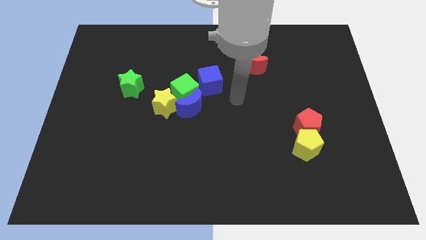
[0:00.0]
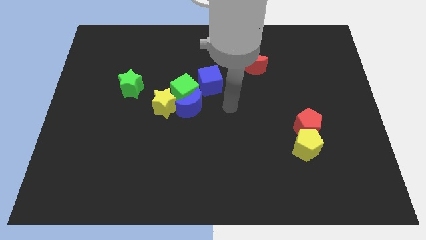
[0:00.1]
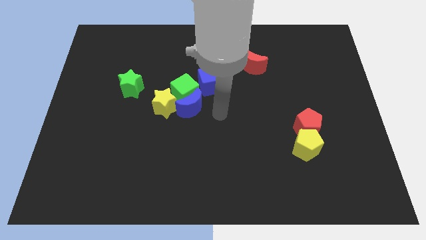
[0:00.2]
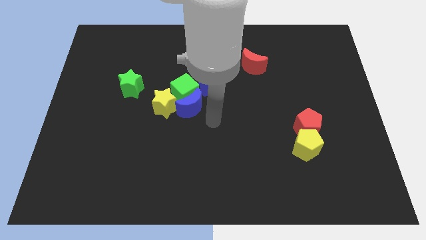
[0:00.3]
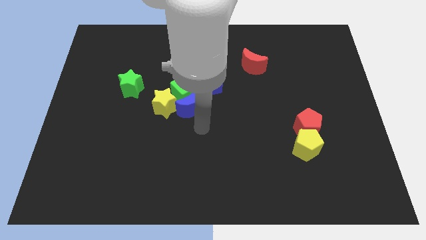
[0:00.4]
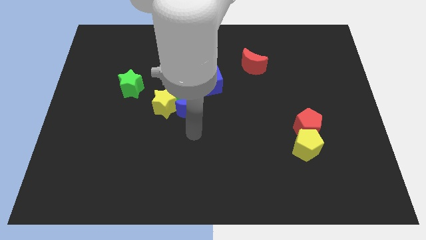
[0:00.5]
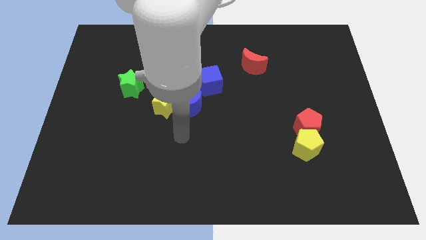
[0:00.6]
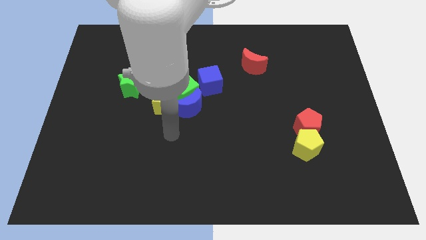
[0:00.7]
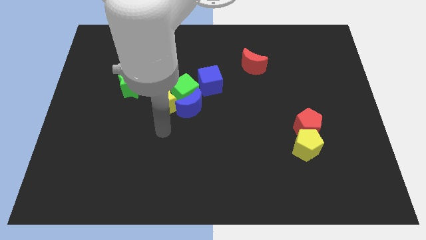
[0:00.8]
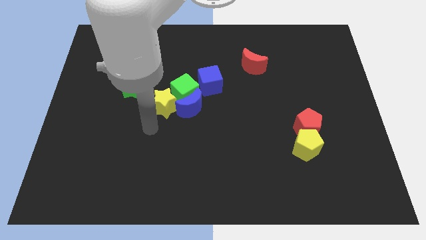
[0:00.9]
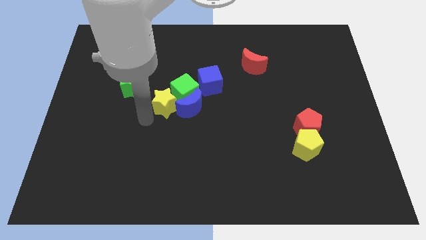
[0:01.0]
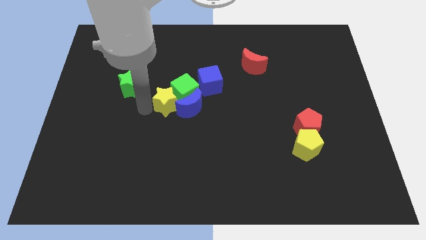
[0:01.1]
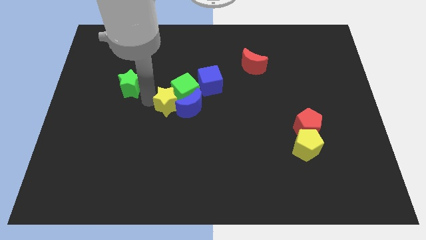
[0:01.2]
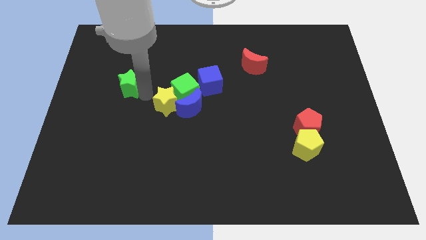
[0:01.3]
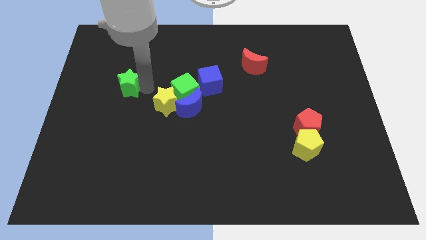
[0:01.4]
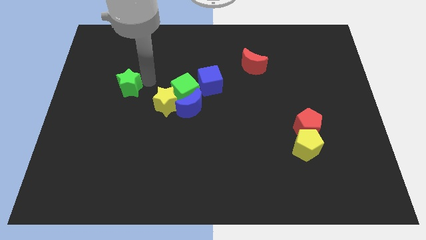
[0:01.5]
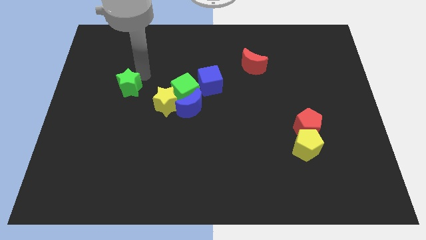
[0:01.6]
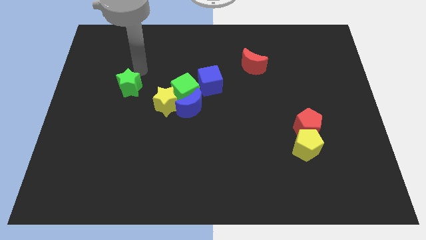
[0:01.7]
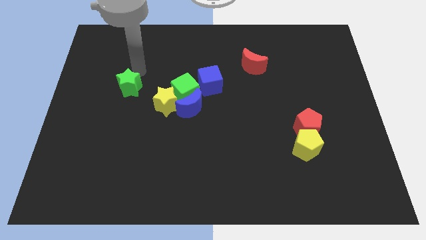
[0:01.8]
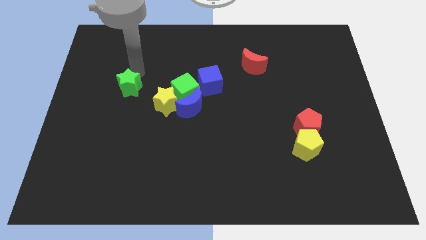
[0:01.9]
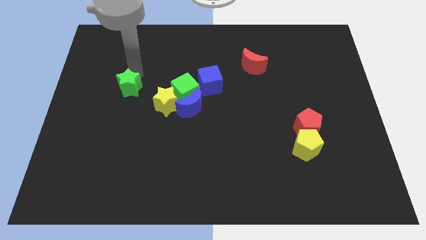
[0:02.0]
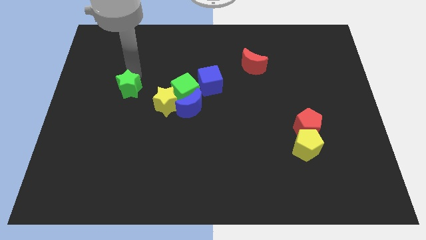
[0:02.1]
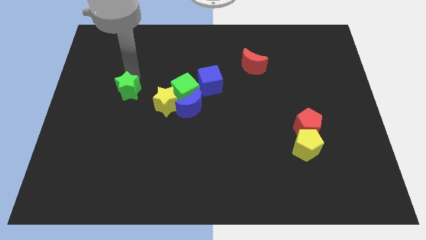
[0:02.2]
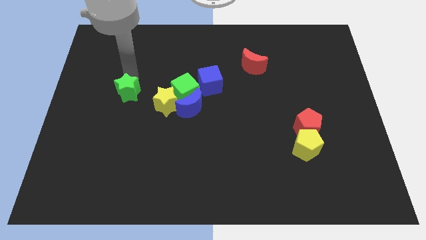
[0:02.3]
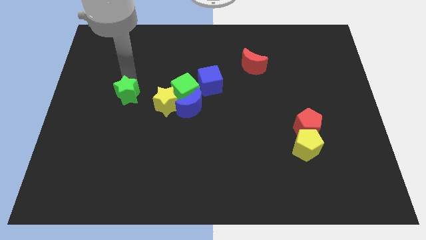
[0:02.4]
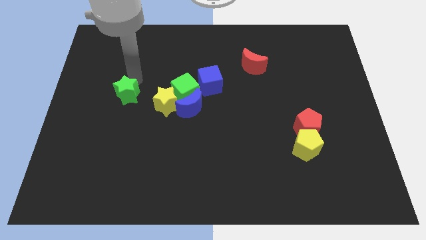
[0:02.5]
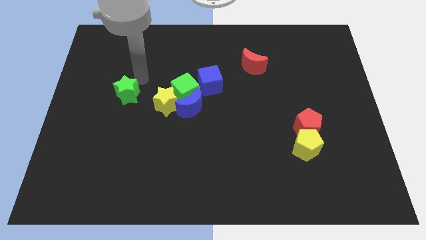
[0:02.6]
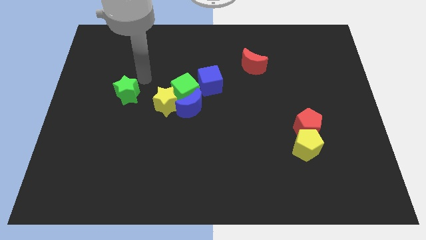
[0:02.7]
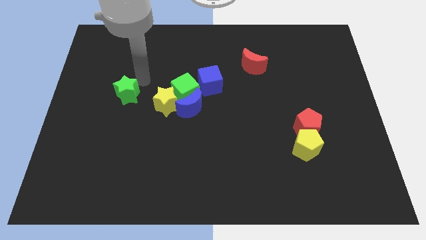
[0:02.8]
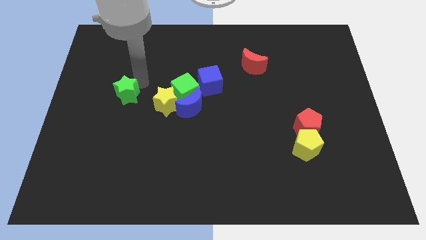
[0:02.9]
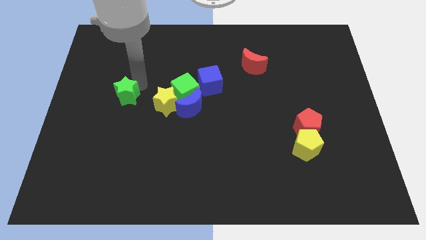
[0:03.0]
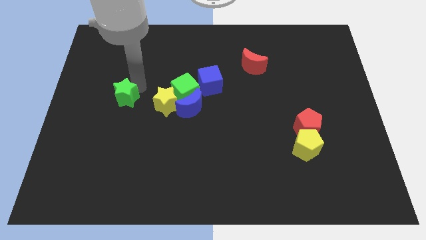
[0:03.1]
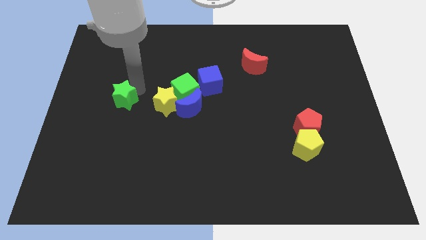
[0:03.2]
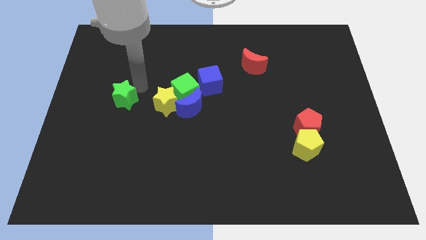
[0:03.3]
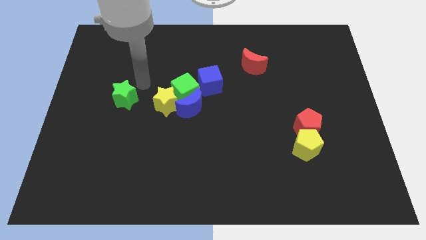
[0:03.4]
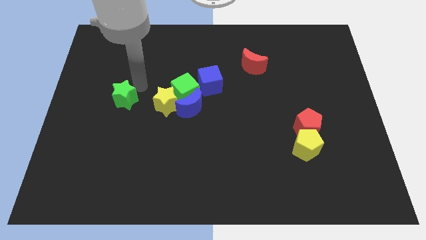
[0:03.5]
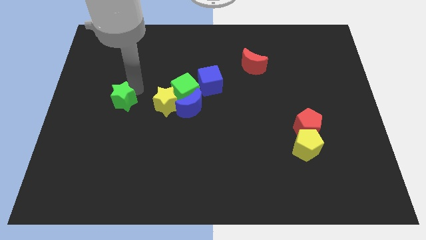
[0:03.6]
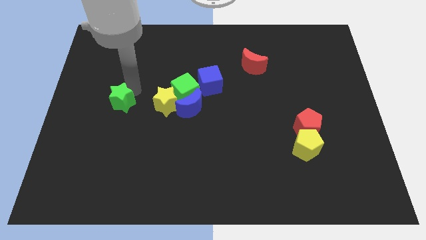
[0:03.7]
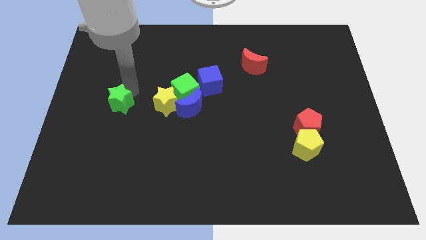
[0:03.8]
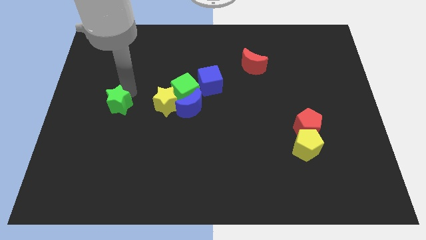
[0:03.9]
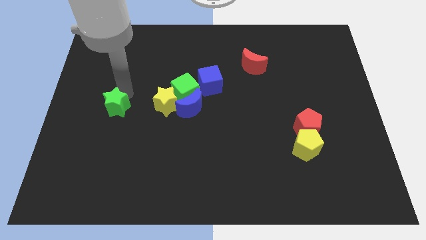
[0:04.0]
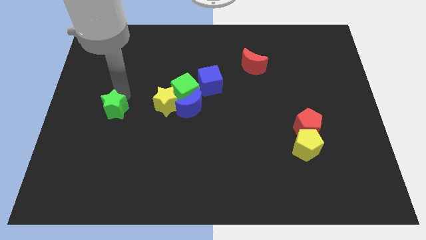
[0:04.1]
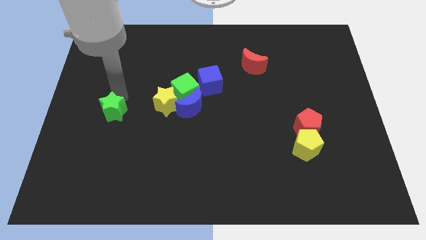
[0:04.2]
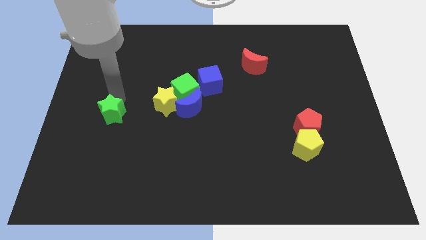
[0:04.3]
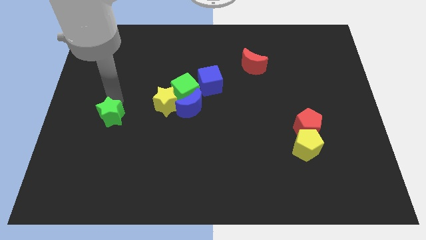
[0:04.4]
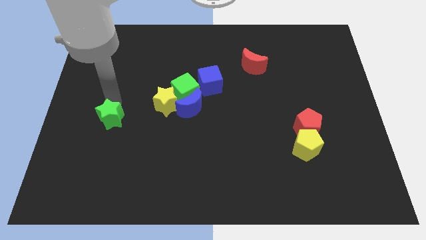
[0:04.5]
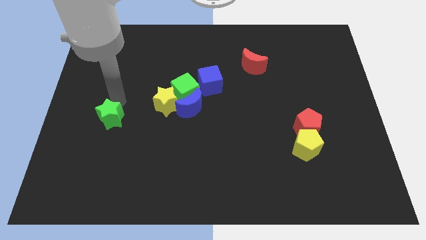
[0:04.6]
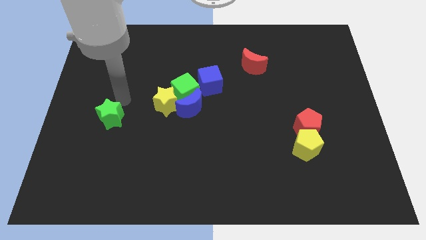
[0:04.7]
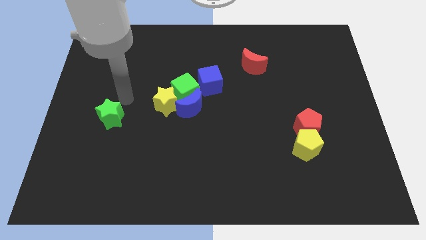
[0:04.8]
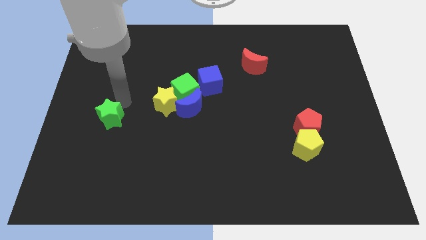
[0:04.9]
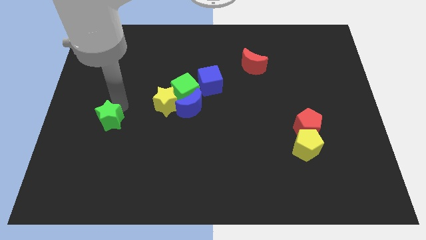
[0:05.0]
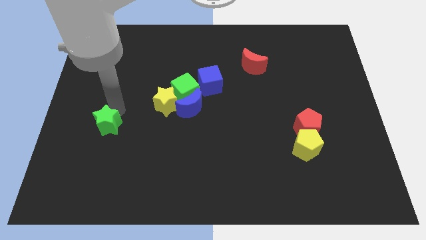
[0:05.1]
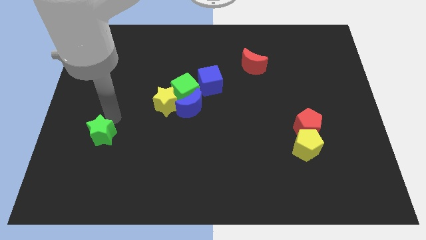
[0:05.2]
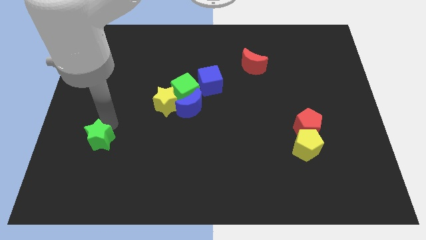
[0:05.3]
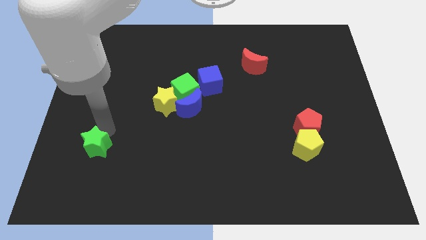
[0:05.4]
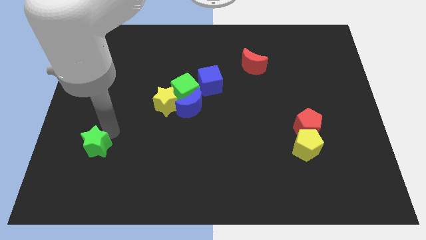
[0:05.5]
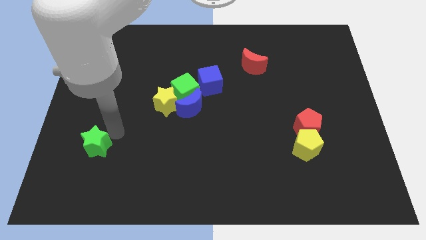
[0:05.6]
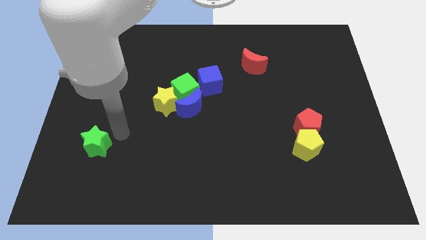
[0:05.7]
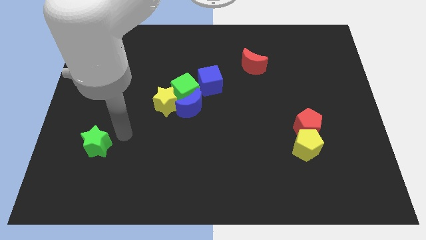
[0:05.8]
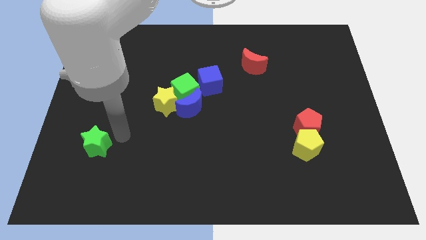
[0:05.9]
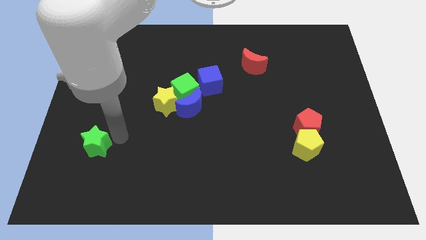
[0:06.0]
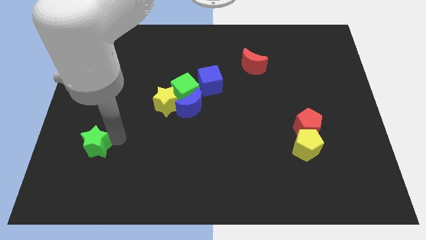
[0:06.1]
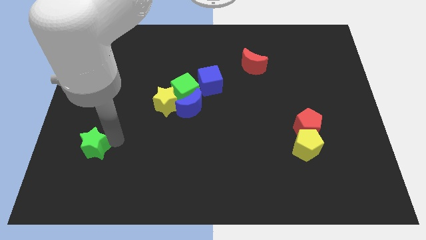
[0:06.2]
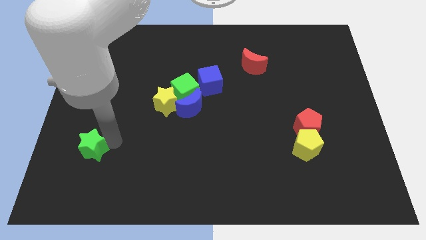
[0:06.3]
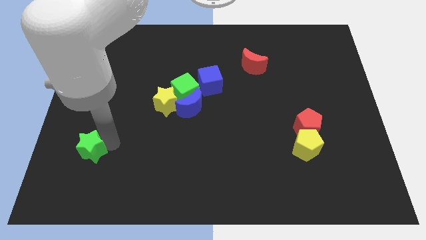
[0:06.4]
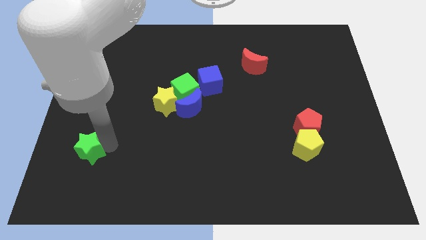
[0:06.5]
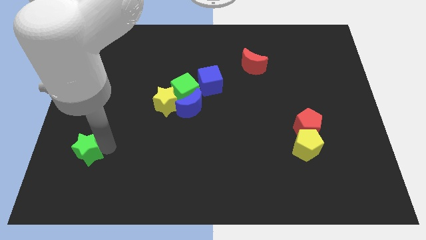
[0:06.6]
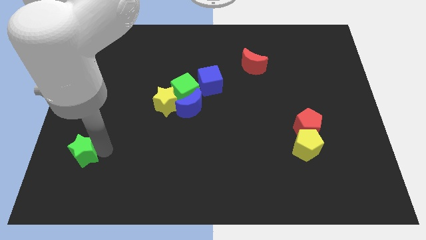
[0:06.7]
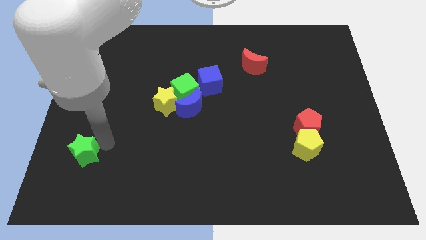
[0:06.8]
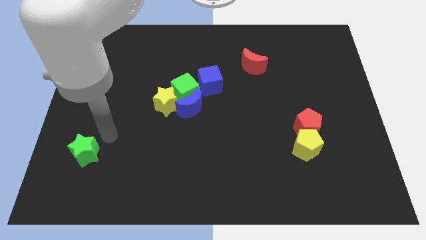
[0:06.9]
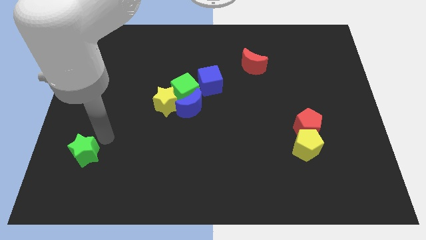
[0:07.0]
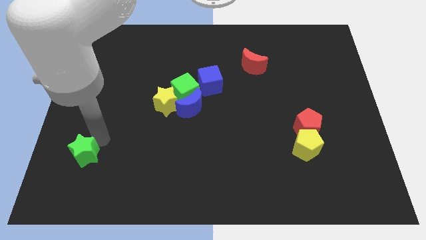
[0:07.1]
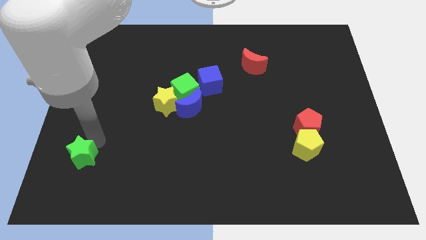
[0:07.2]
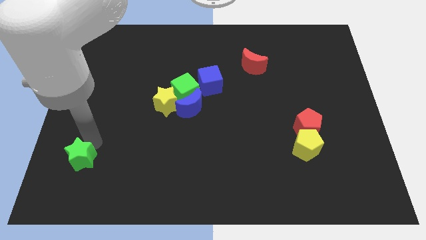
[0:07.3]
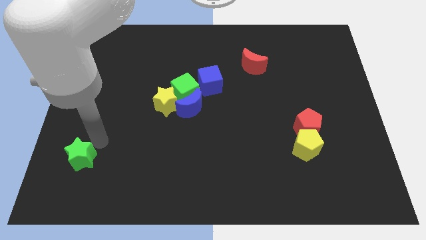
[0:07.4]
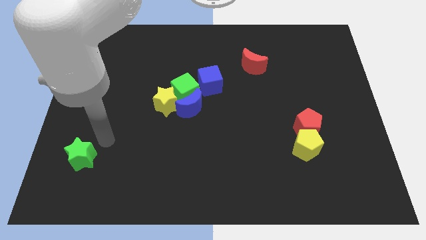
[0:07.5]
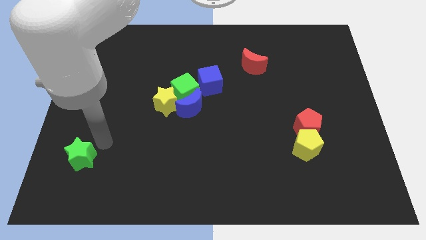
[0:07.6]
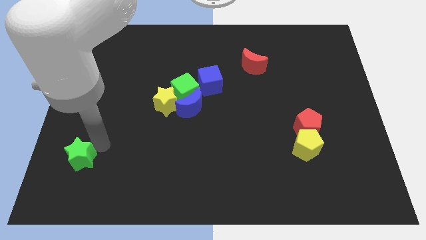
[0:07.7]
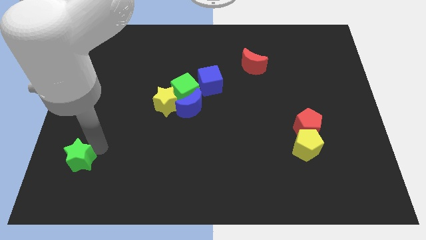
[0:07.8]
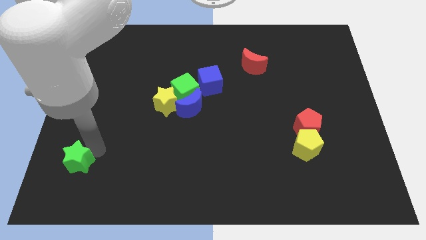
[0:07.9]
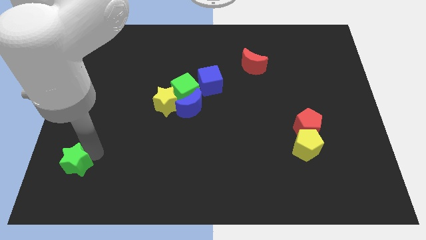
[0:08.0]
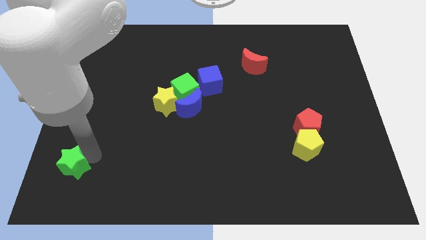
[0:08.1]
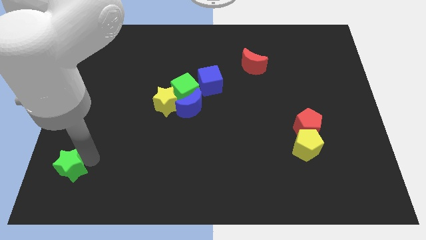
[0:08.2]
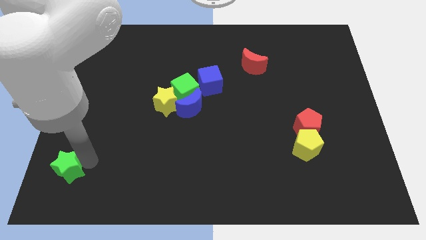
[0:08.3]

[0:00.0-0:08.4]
push the green star to the lower left corner
